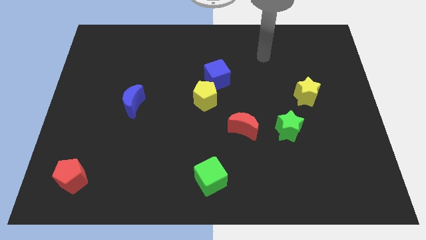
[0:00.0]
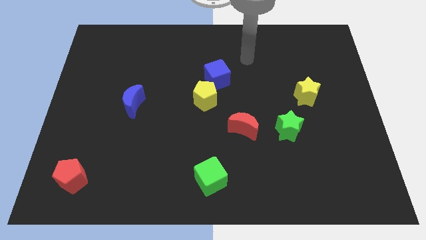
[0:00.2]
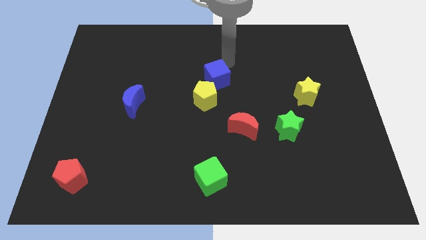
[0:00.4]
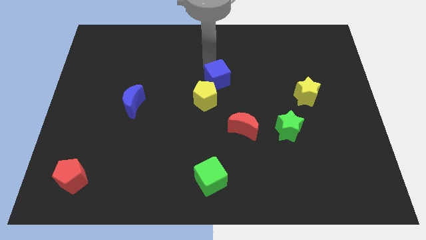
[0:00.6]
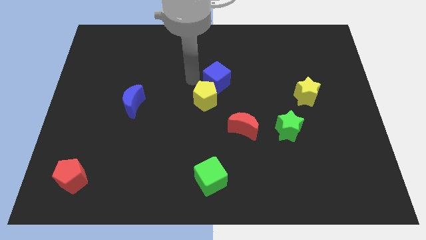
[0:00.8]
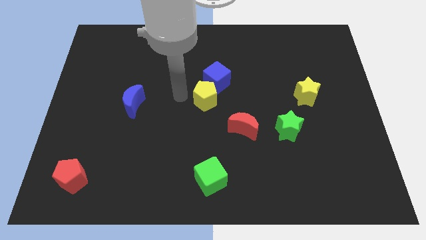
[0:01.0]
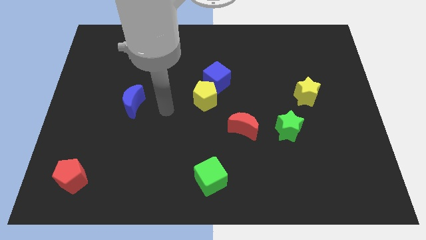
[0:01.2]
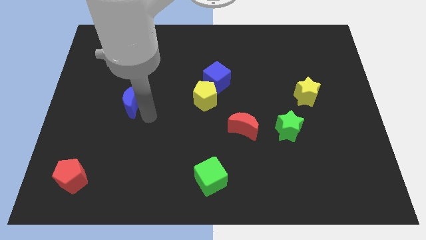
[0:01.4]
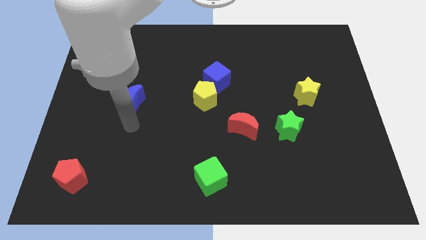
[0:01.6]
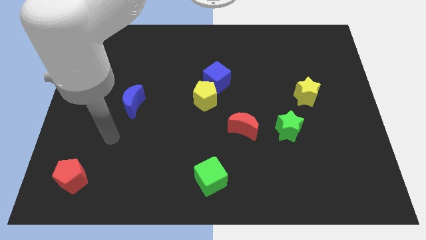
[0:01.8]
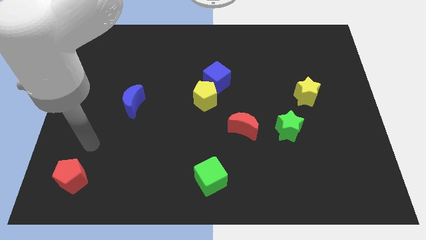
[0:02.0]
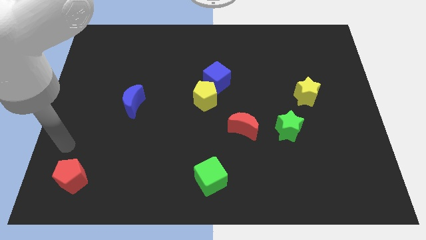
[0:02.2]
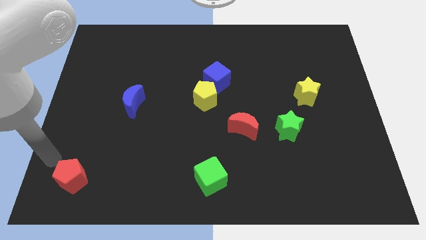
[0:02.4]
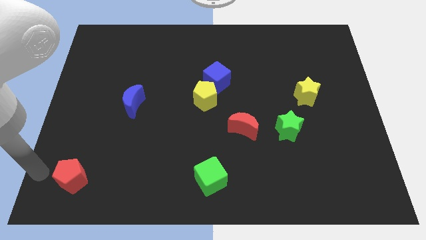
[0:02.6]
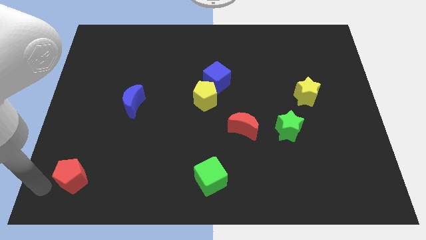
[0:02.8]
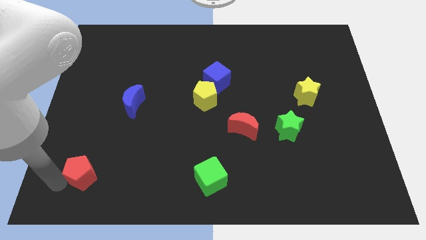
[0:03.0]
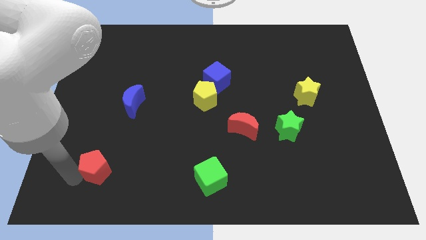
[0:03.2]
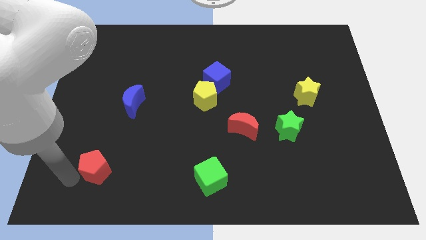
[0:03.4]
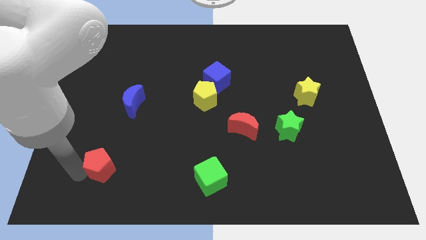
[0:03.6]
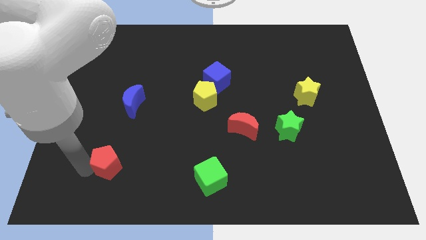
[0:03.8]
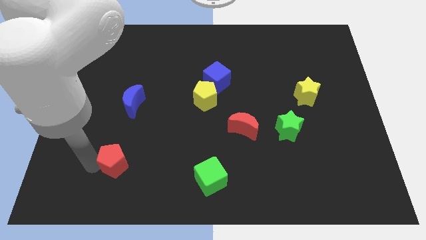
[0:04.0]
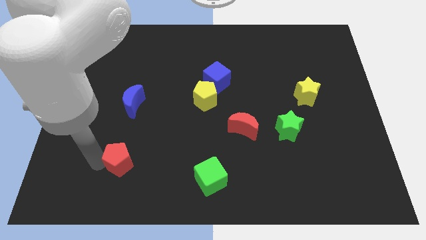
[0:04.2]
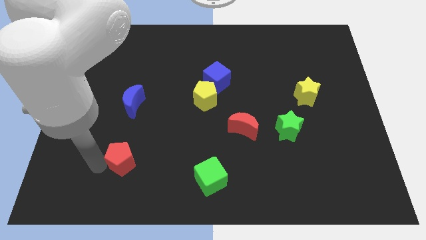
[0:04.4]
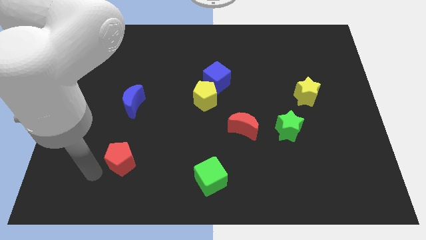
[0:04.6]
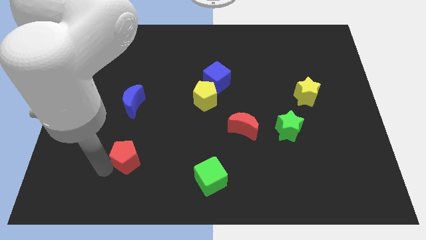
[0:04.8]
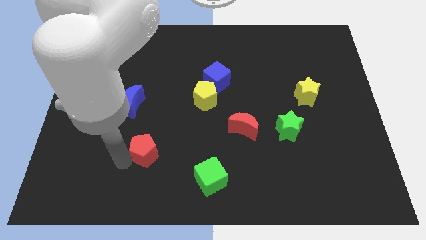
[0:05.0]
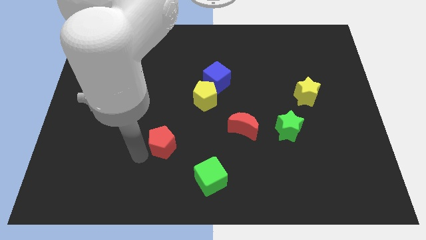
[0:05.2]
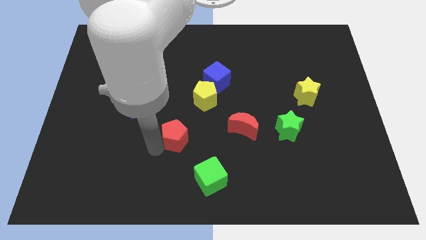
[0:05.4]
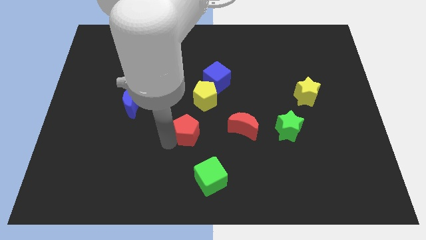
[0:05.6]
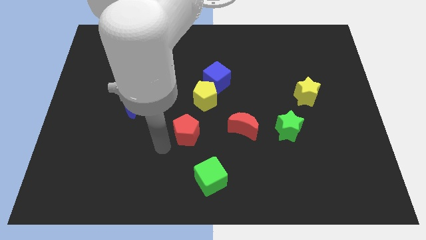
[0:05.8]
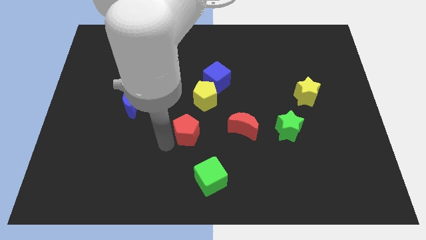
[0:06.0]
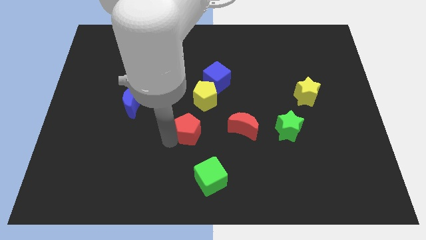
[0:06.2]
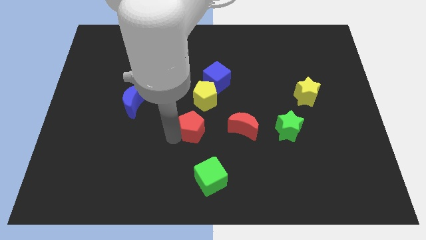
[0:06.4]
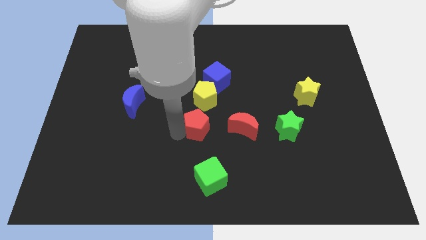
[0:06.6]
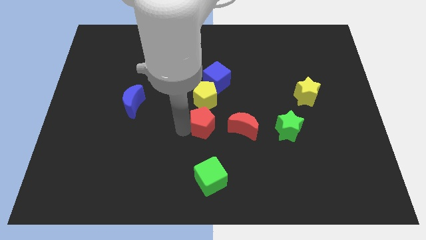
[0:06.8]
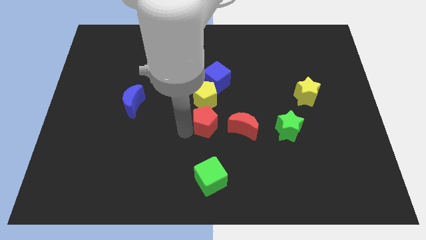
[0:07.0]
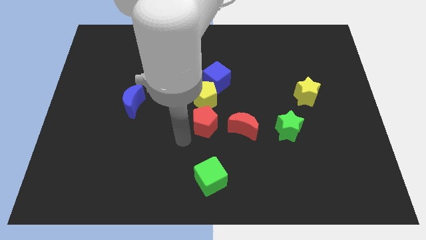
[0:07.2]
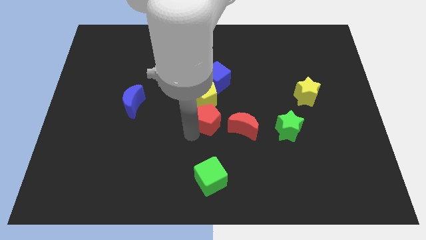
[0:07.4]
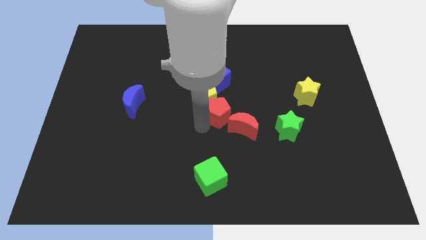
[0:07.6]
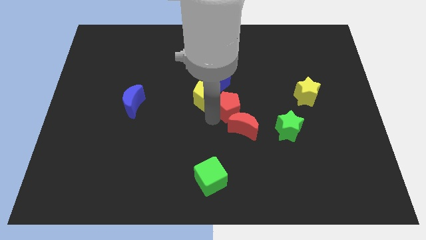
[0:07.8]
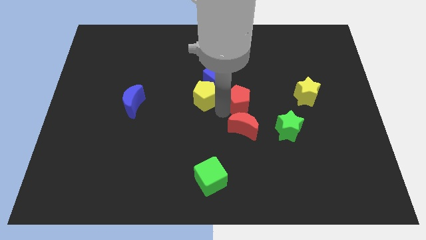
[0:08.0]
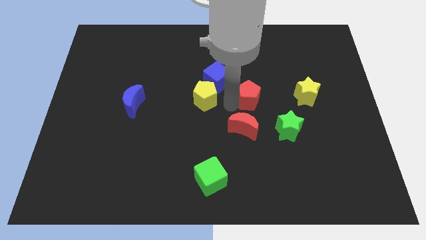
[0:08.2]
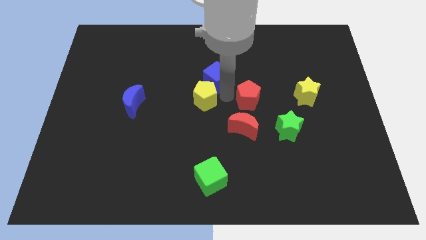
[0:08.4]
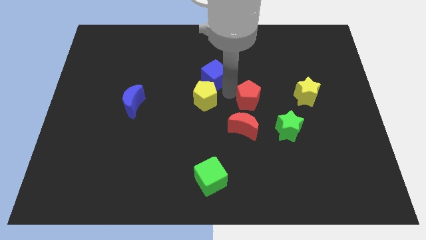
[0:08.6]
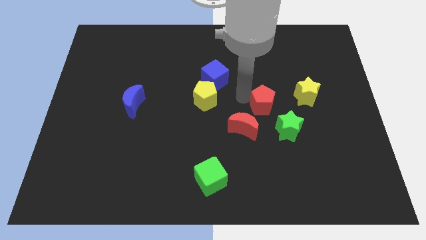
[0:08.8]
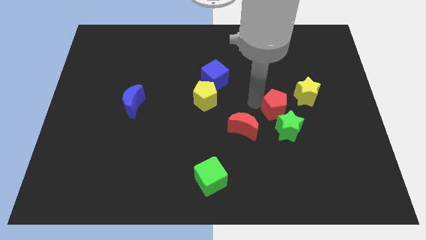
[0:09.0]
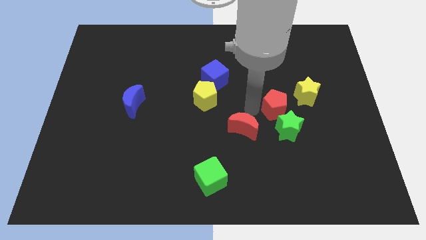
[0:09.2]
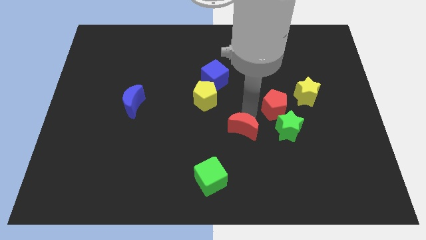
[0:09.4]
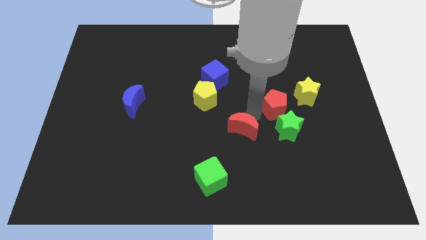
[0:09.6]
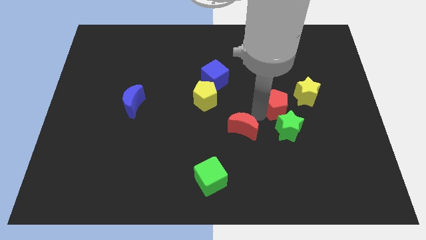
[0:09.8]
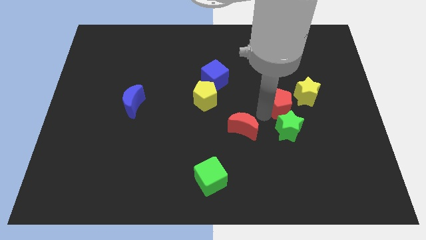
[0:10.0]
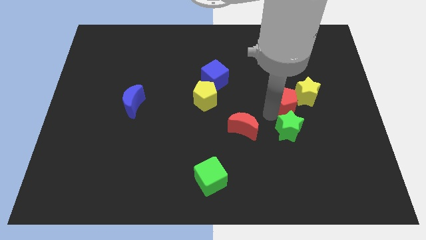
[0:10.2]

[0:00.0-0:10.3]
slide the red pentagon close to the yellow star

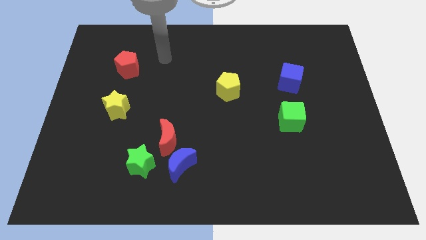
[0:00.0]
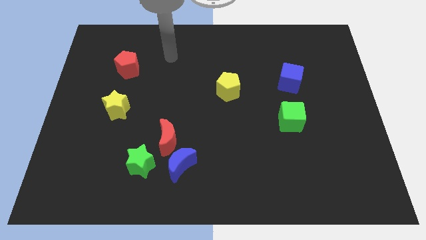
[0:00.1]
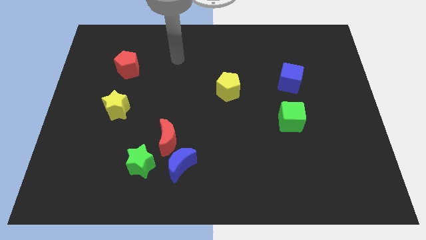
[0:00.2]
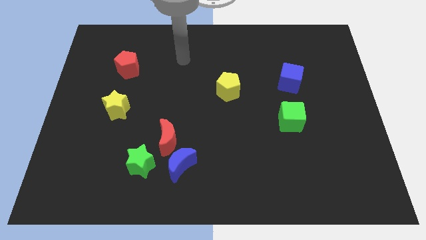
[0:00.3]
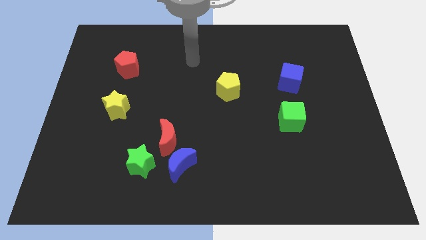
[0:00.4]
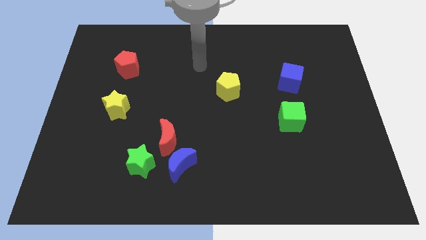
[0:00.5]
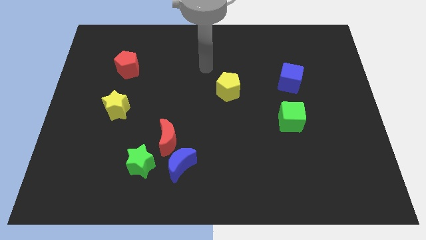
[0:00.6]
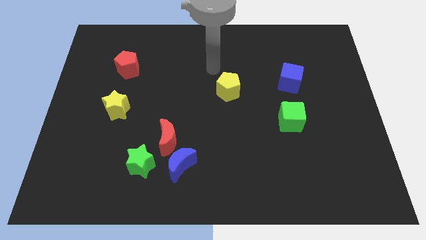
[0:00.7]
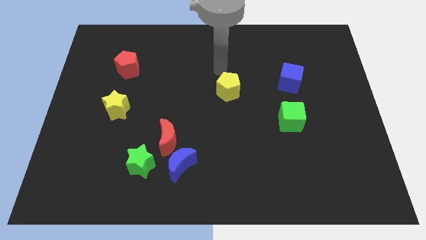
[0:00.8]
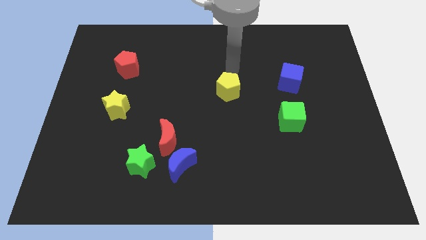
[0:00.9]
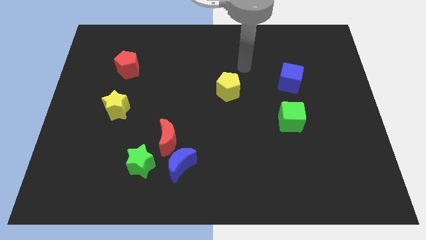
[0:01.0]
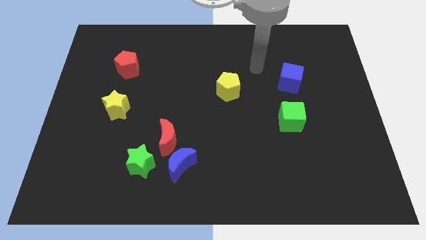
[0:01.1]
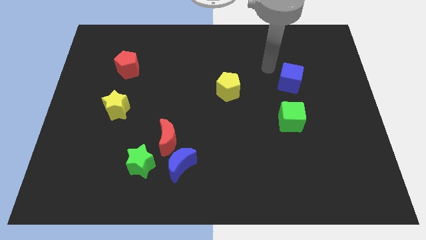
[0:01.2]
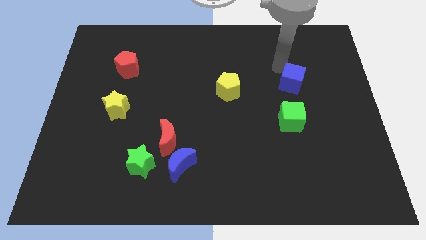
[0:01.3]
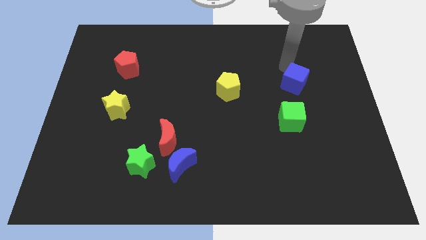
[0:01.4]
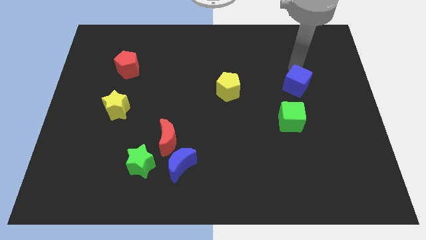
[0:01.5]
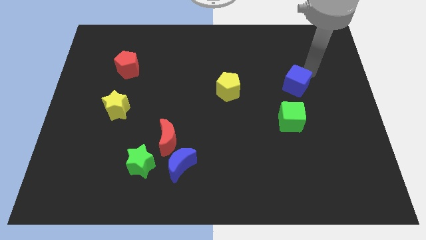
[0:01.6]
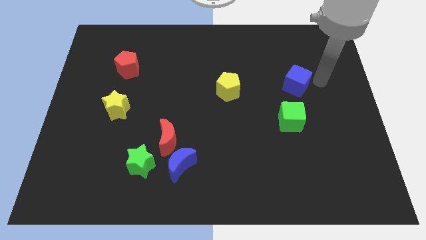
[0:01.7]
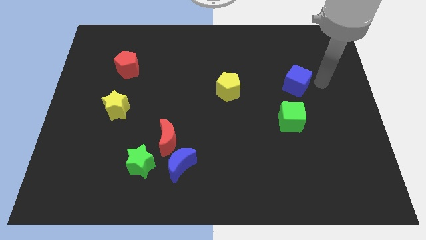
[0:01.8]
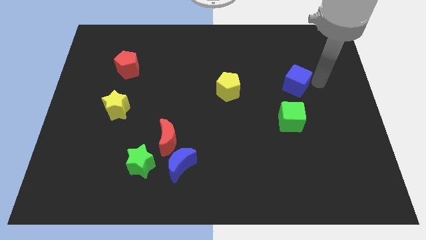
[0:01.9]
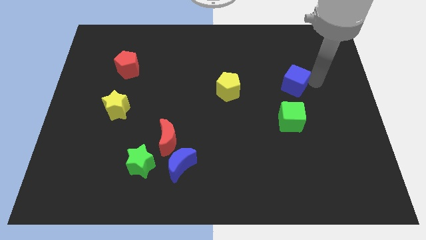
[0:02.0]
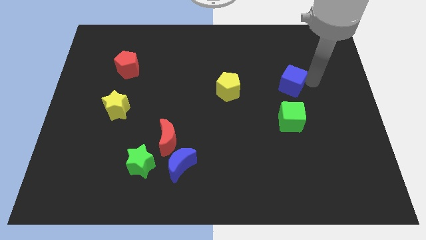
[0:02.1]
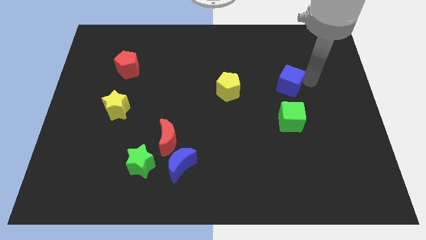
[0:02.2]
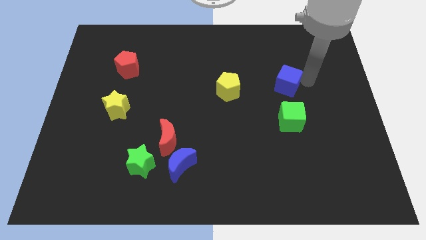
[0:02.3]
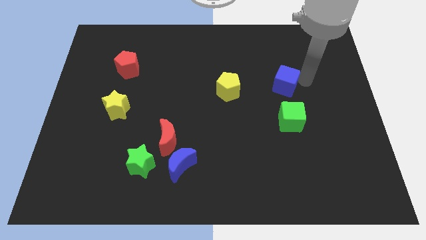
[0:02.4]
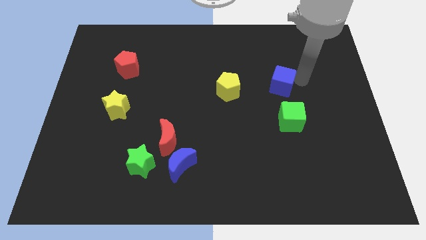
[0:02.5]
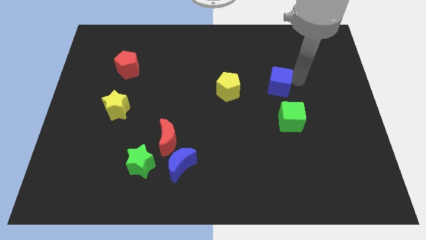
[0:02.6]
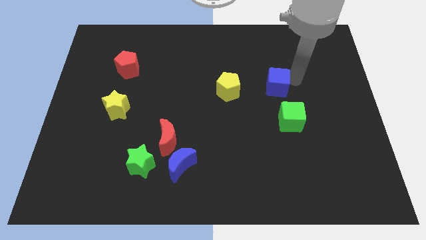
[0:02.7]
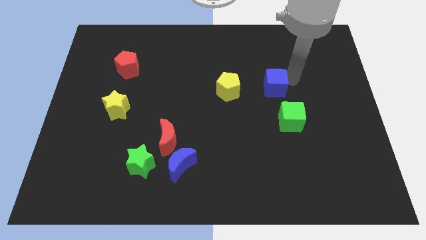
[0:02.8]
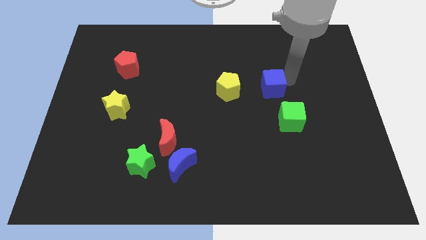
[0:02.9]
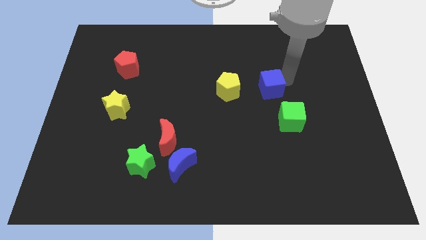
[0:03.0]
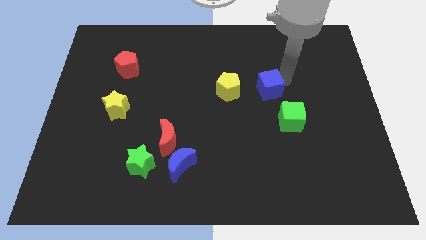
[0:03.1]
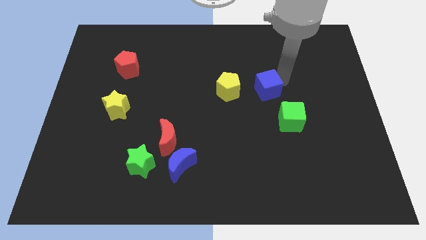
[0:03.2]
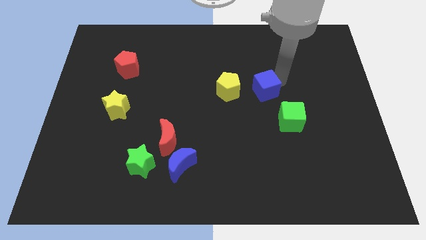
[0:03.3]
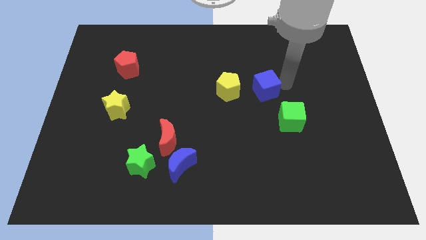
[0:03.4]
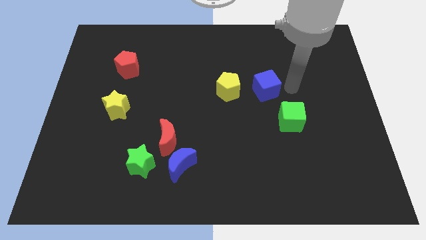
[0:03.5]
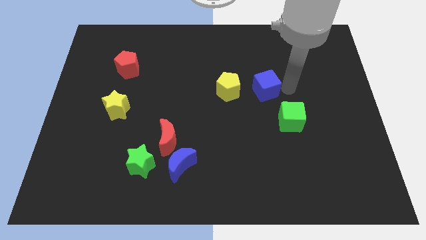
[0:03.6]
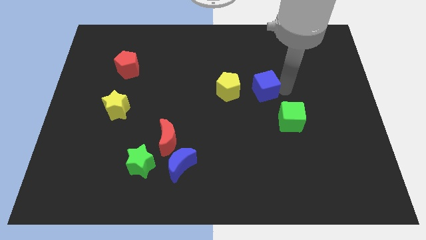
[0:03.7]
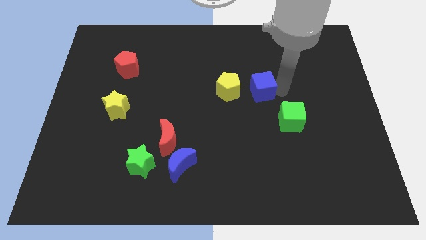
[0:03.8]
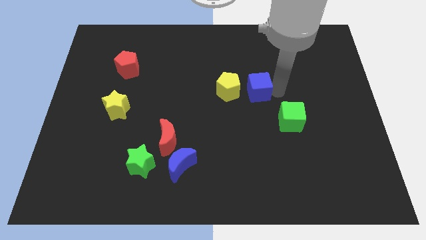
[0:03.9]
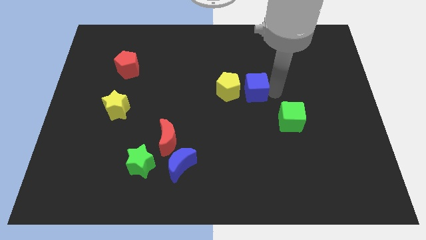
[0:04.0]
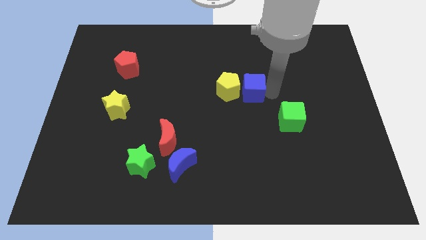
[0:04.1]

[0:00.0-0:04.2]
push the blue cube to the yellow pentagon
